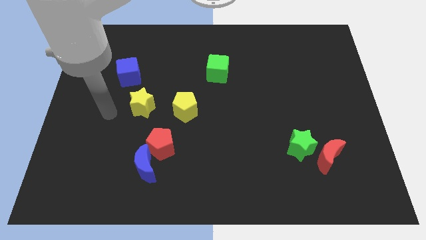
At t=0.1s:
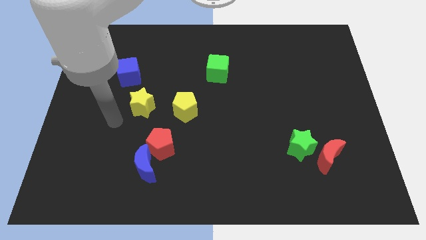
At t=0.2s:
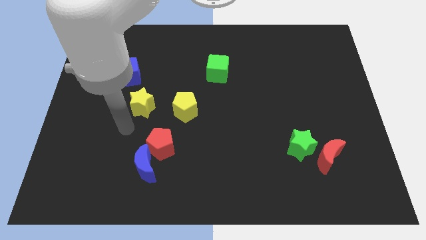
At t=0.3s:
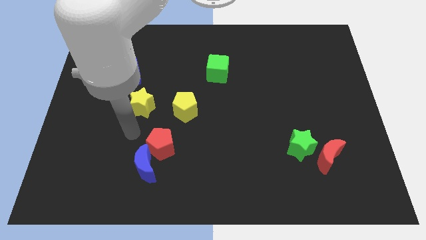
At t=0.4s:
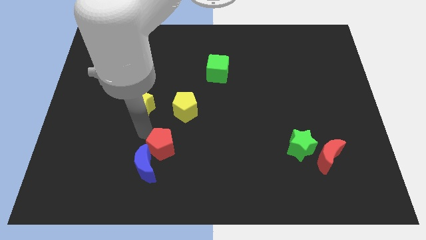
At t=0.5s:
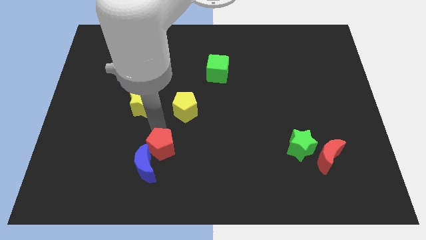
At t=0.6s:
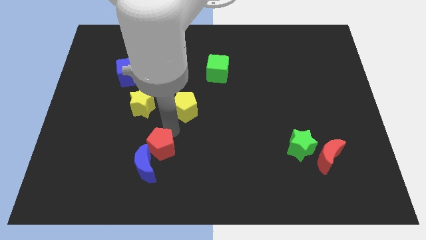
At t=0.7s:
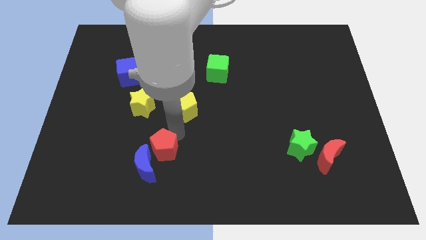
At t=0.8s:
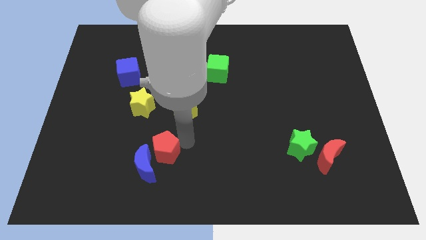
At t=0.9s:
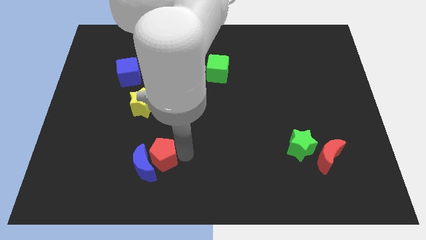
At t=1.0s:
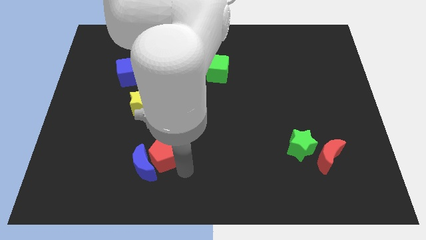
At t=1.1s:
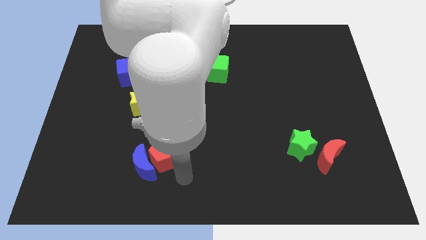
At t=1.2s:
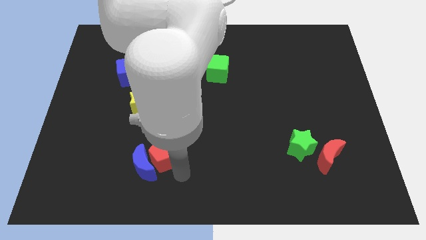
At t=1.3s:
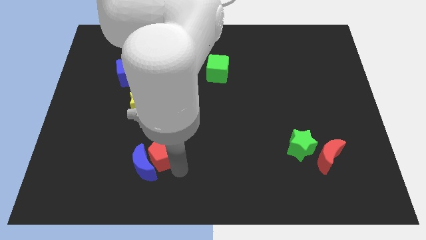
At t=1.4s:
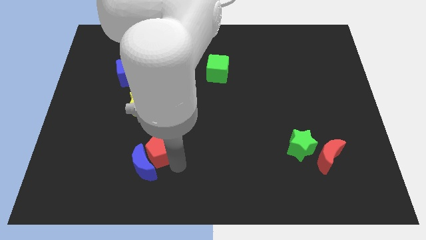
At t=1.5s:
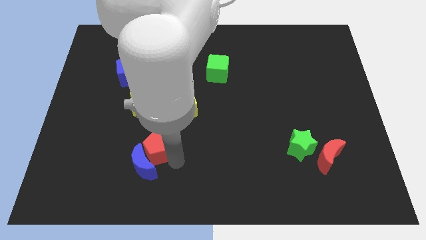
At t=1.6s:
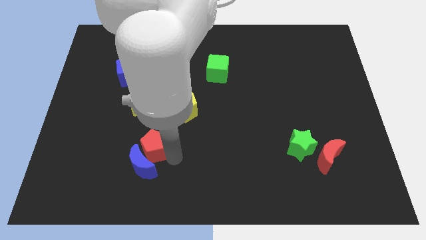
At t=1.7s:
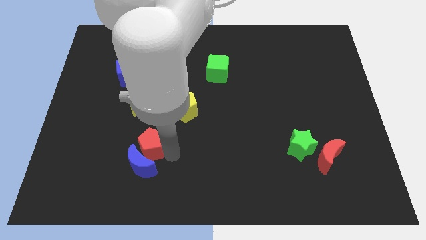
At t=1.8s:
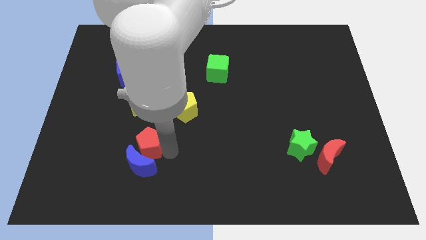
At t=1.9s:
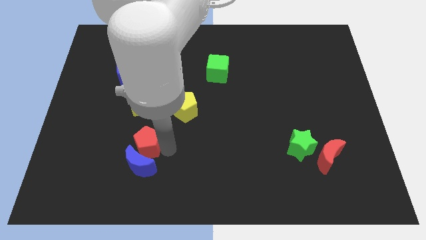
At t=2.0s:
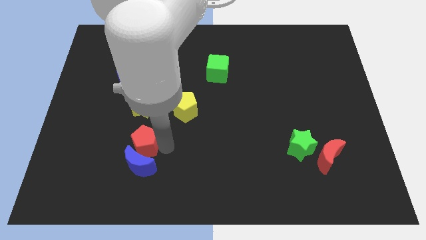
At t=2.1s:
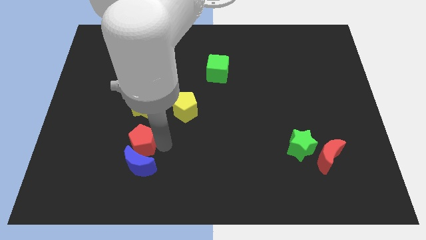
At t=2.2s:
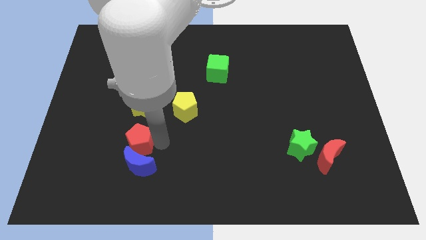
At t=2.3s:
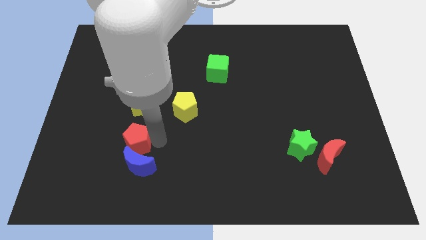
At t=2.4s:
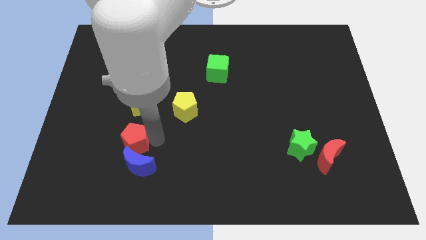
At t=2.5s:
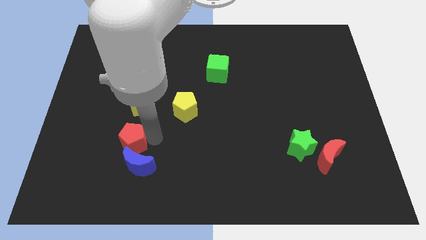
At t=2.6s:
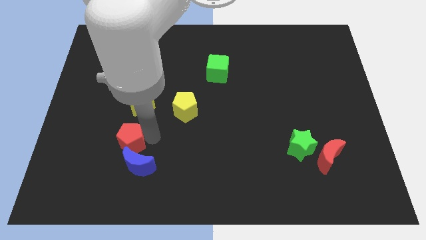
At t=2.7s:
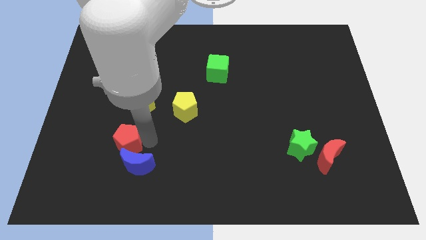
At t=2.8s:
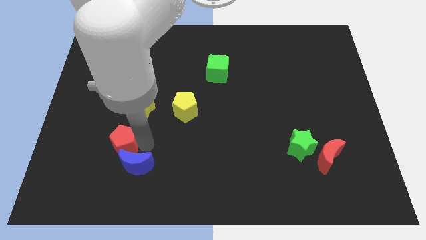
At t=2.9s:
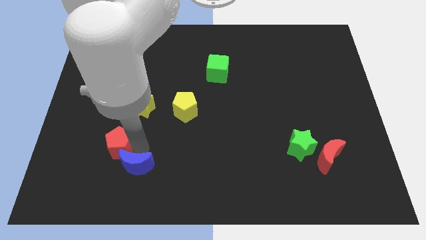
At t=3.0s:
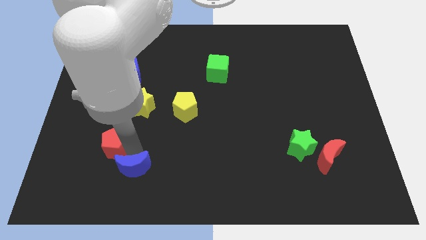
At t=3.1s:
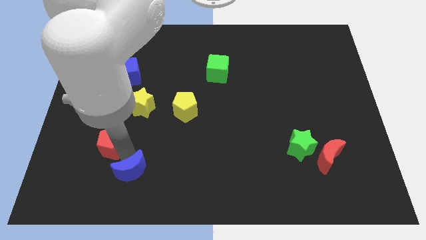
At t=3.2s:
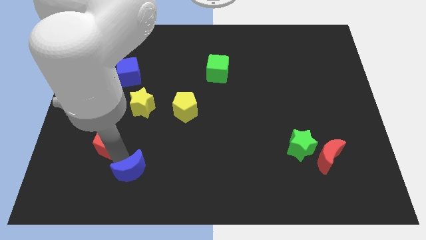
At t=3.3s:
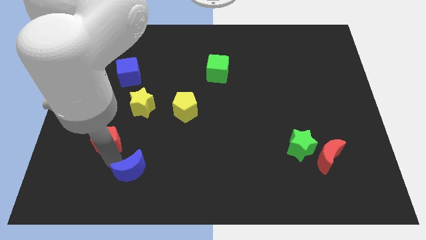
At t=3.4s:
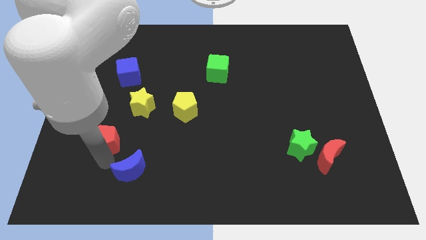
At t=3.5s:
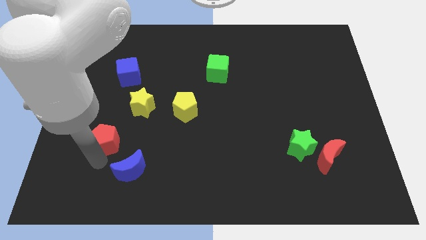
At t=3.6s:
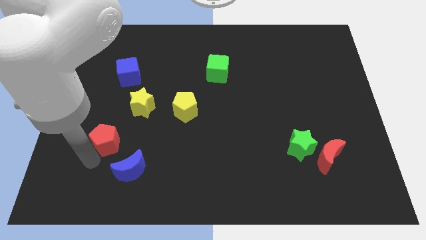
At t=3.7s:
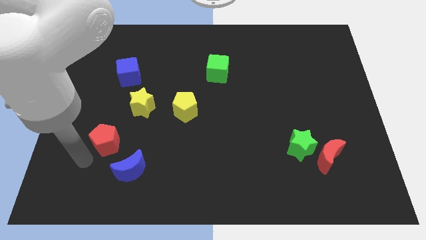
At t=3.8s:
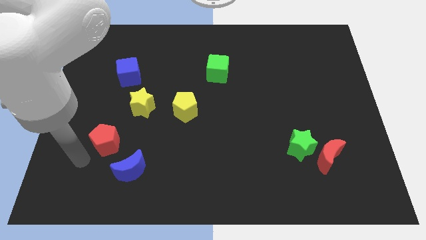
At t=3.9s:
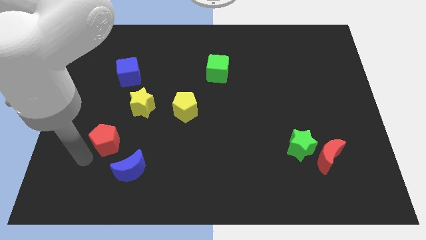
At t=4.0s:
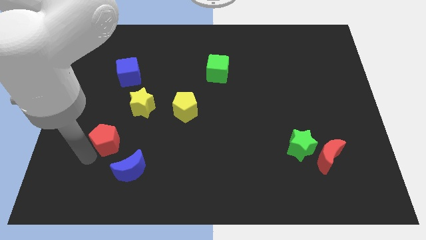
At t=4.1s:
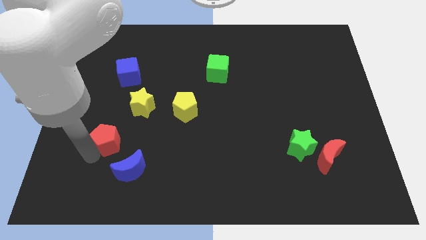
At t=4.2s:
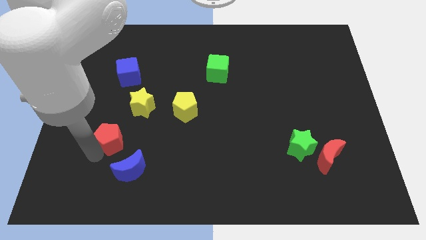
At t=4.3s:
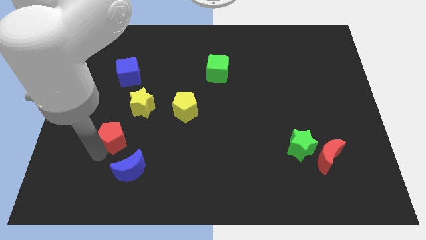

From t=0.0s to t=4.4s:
move the red pentagon a little upwards and then to the left

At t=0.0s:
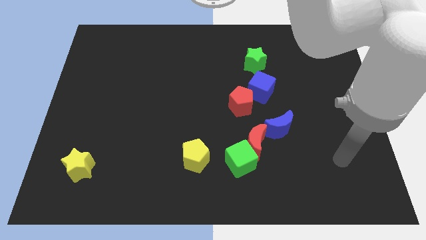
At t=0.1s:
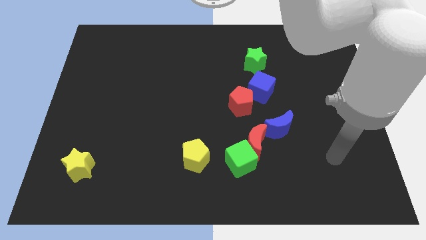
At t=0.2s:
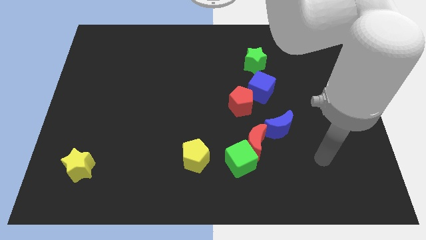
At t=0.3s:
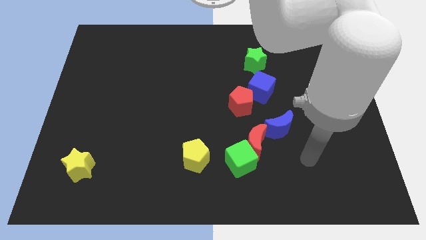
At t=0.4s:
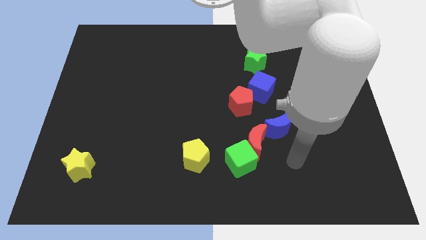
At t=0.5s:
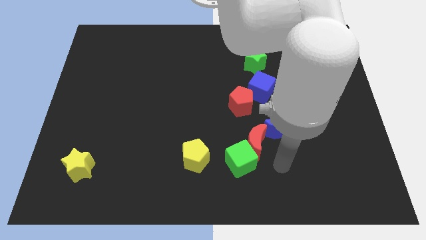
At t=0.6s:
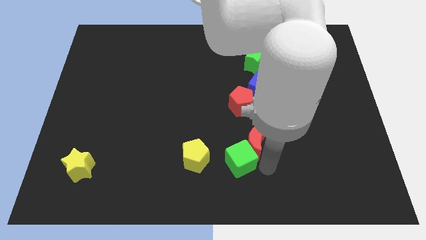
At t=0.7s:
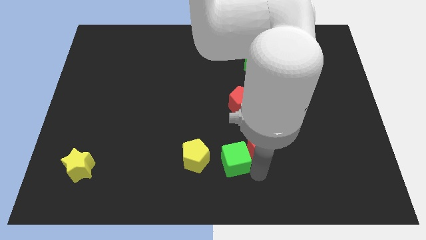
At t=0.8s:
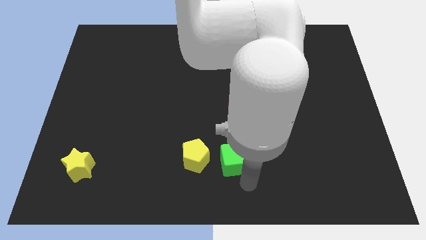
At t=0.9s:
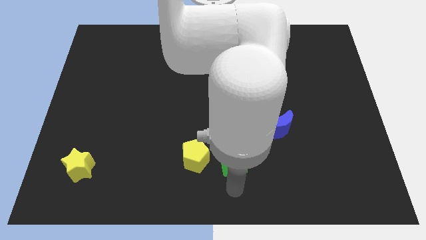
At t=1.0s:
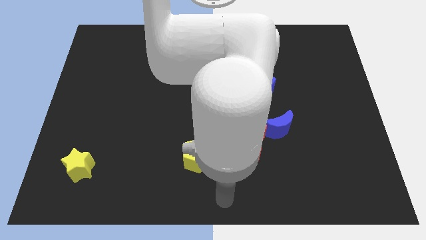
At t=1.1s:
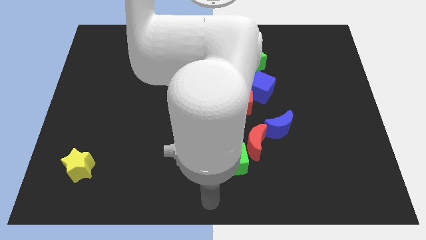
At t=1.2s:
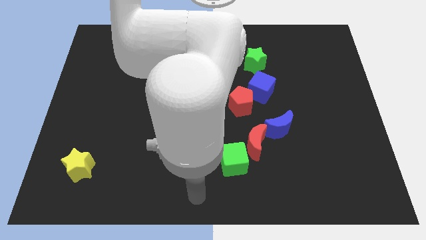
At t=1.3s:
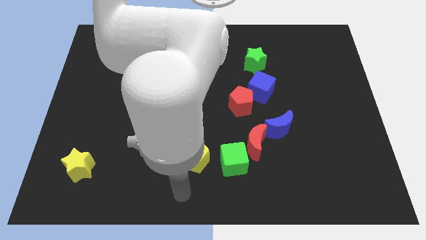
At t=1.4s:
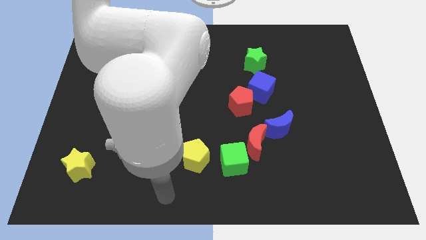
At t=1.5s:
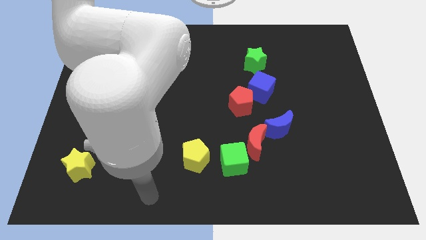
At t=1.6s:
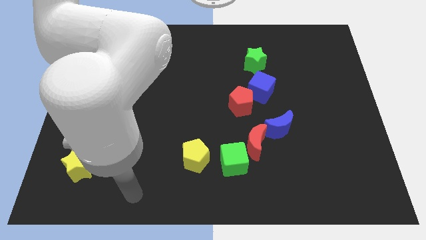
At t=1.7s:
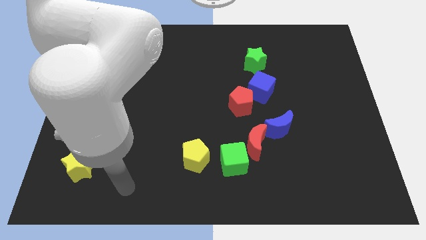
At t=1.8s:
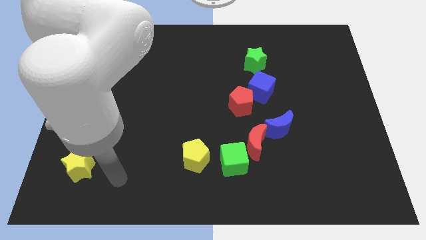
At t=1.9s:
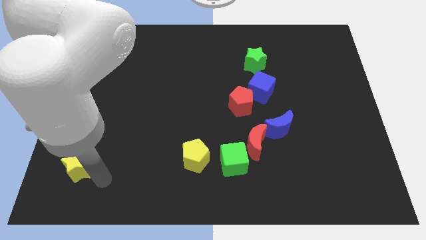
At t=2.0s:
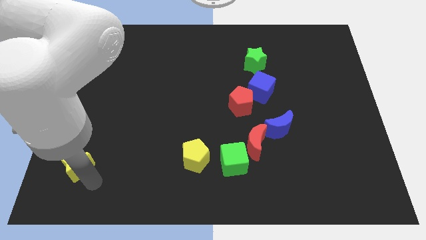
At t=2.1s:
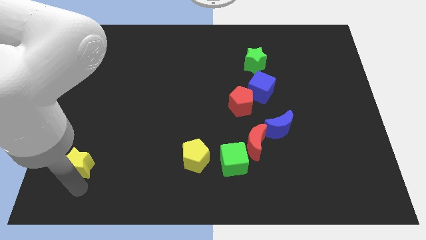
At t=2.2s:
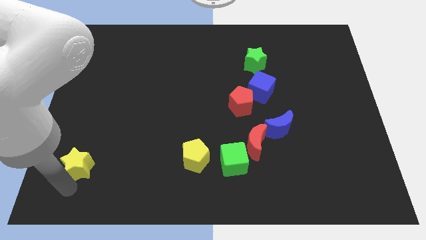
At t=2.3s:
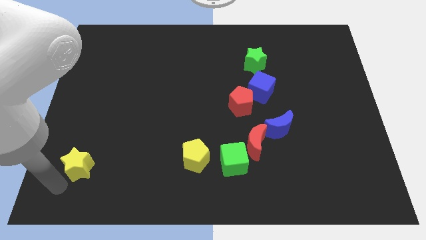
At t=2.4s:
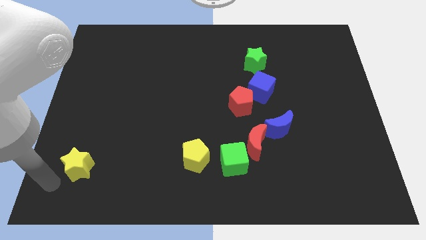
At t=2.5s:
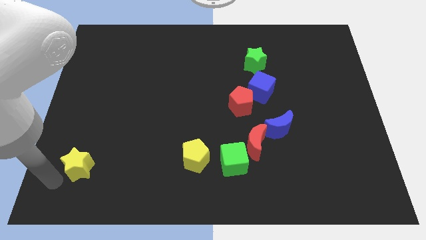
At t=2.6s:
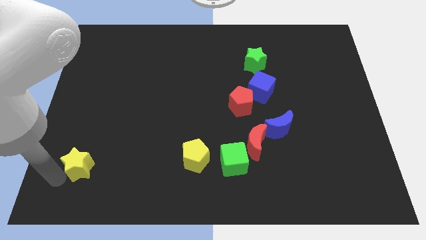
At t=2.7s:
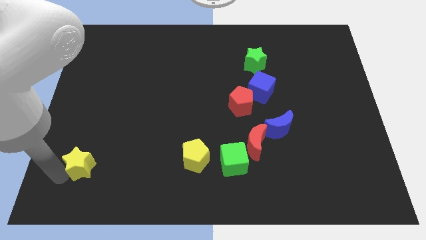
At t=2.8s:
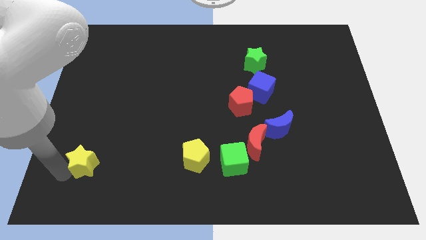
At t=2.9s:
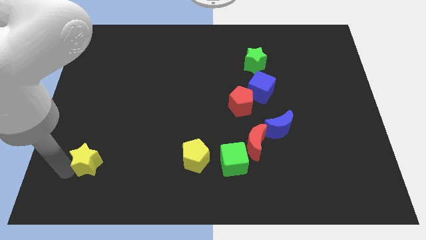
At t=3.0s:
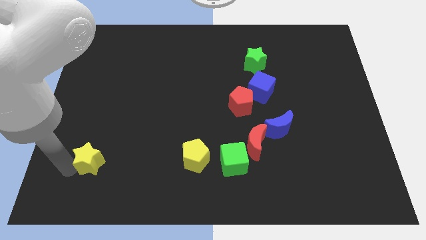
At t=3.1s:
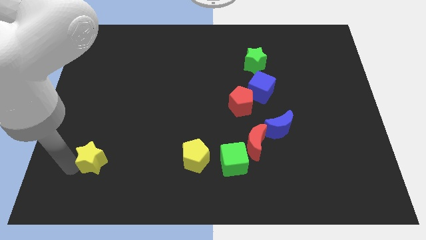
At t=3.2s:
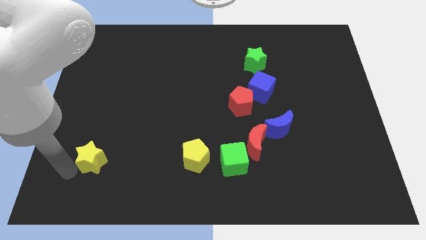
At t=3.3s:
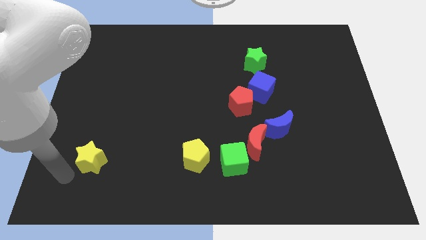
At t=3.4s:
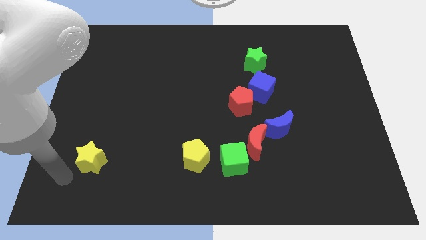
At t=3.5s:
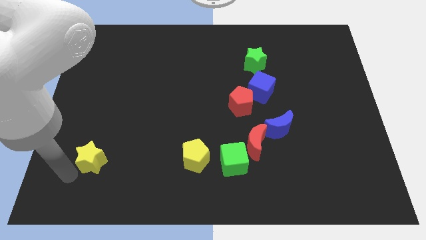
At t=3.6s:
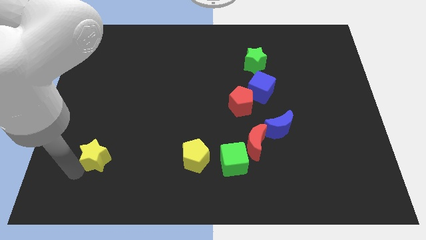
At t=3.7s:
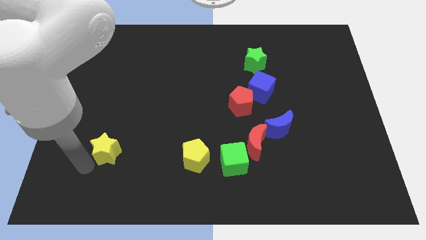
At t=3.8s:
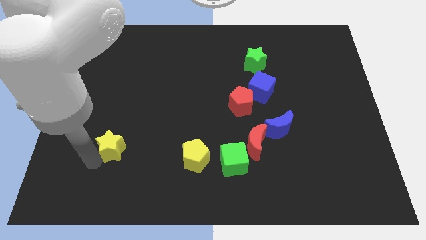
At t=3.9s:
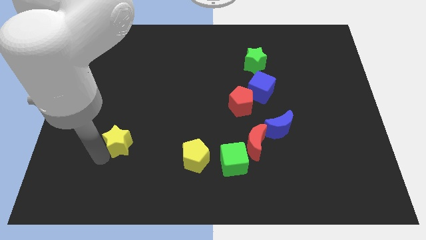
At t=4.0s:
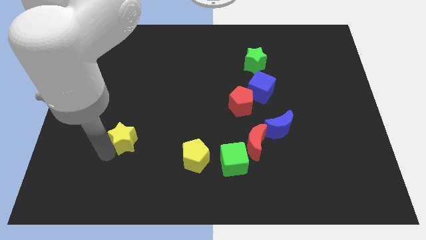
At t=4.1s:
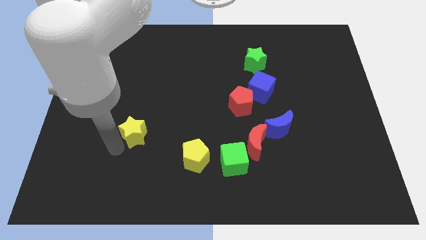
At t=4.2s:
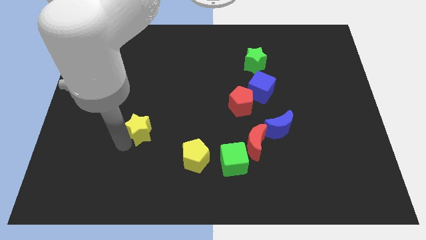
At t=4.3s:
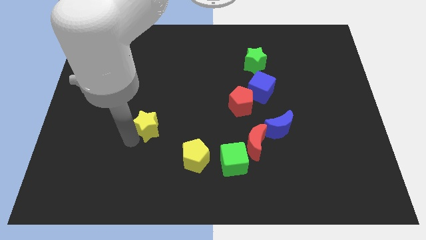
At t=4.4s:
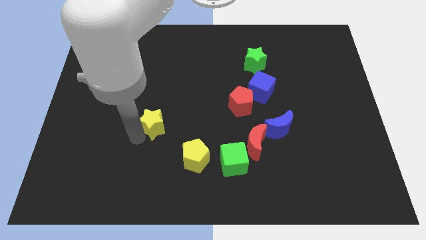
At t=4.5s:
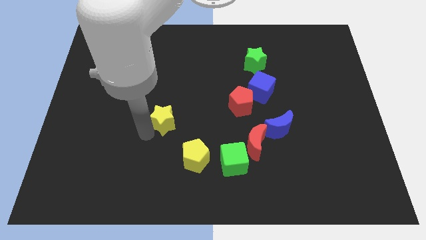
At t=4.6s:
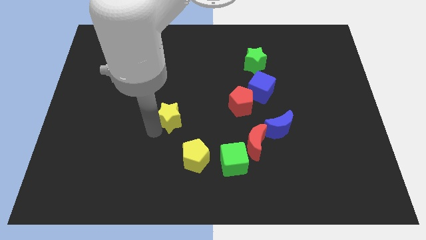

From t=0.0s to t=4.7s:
move the yellow star upwards and right diagonally
